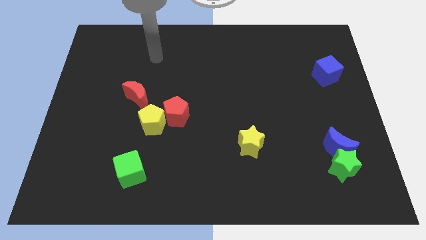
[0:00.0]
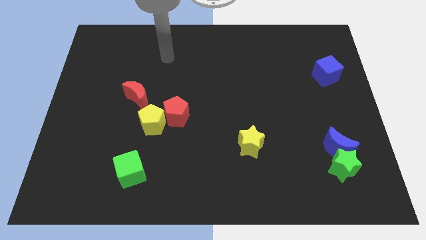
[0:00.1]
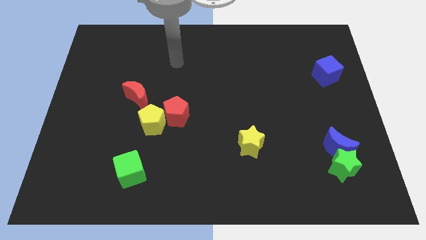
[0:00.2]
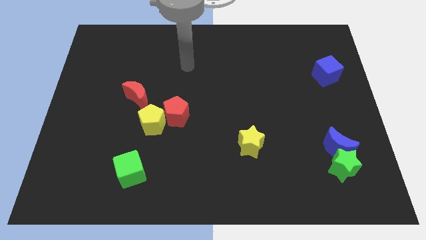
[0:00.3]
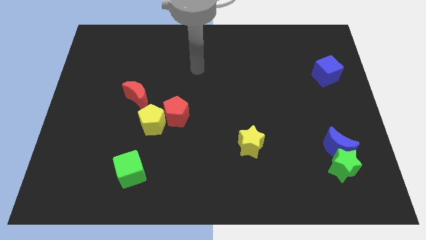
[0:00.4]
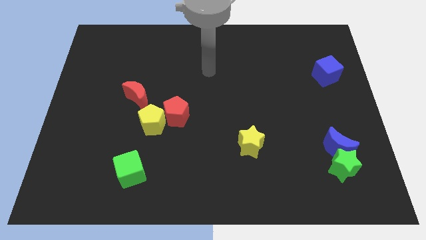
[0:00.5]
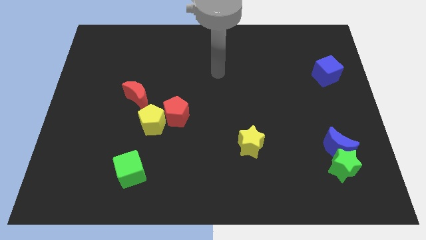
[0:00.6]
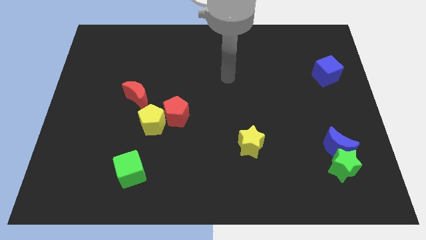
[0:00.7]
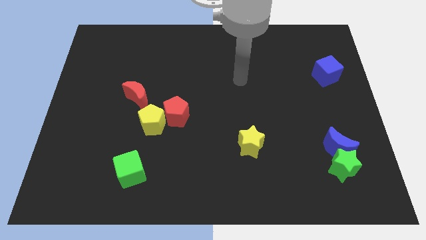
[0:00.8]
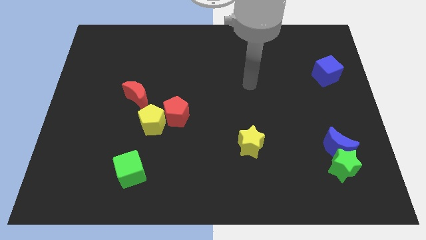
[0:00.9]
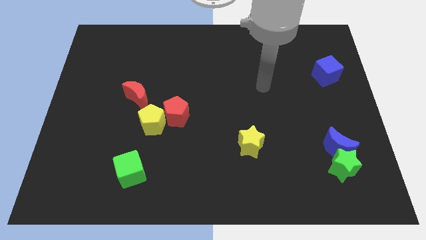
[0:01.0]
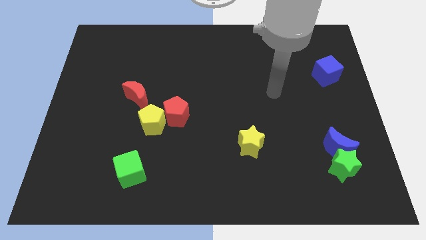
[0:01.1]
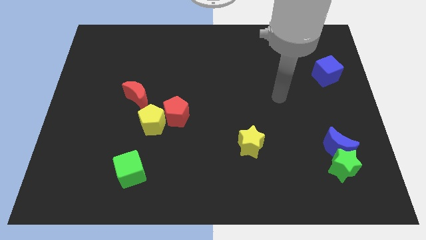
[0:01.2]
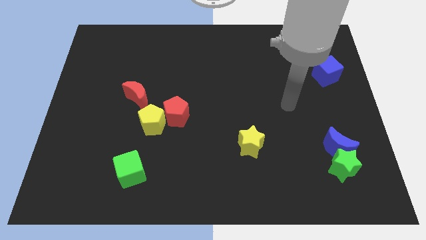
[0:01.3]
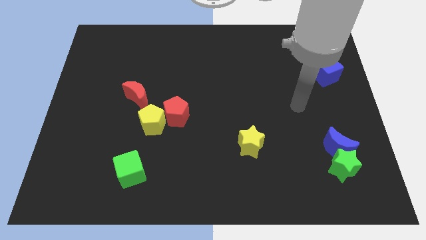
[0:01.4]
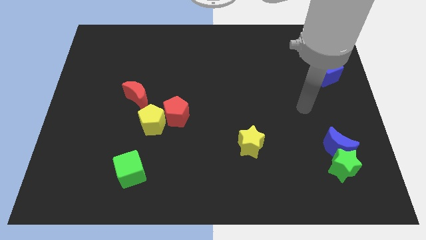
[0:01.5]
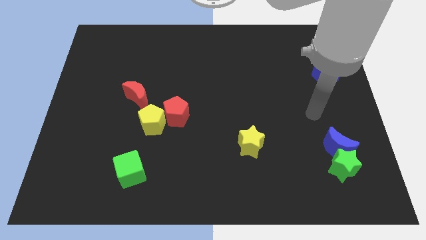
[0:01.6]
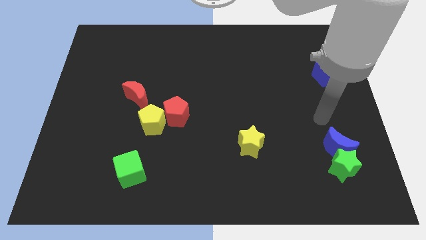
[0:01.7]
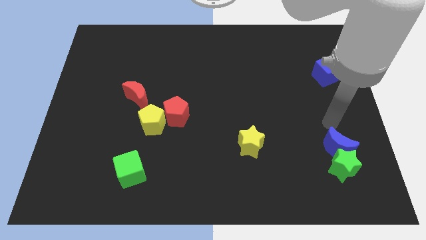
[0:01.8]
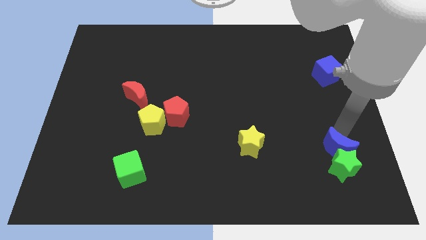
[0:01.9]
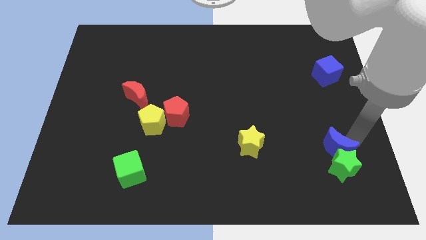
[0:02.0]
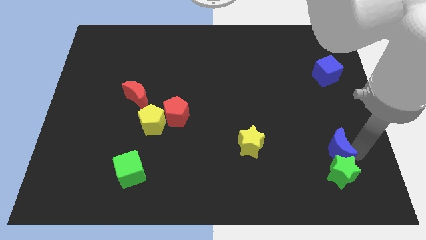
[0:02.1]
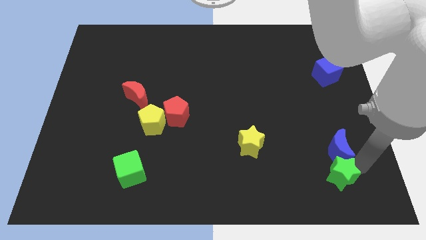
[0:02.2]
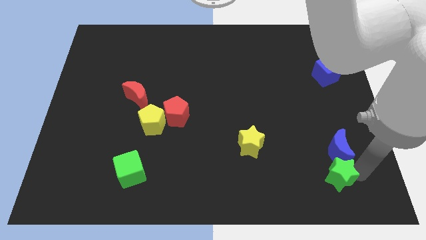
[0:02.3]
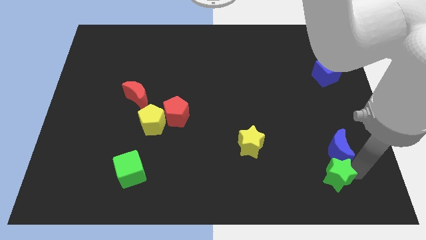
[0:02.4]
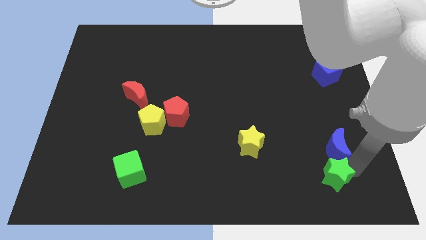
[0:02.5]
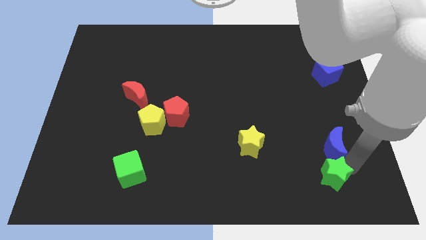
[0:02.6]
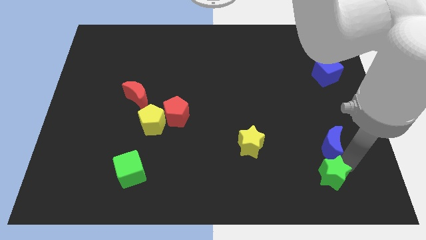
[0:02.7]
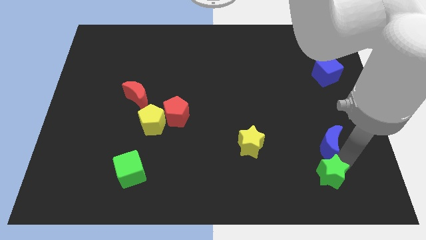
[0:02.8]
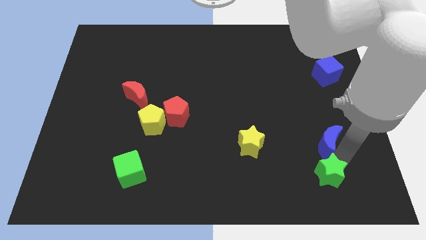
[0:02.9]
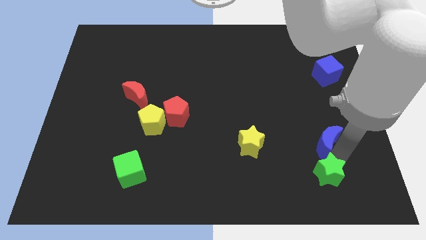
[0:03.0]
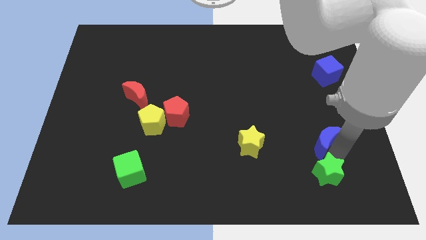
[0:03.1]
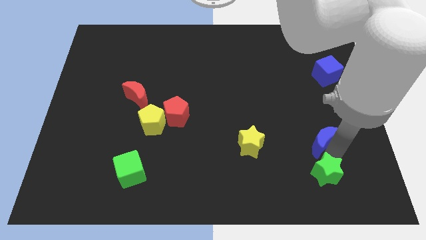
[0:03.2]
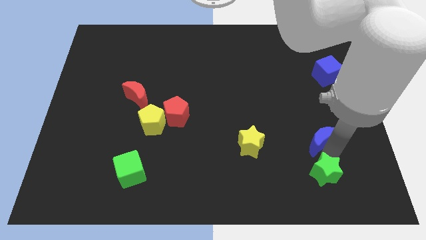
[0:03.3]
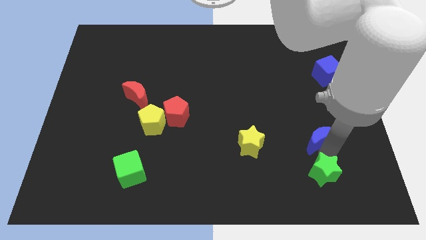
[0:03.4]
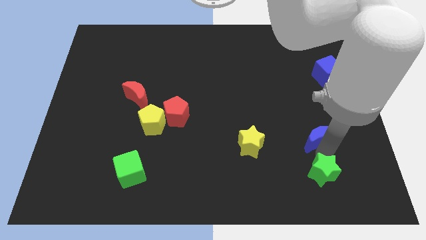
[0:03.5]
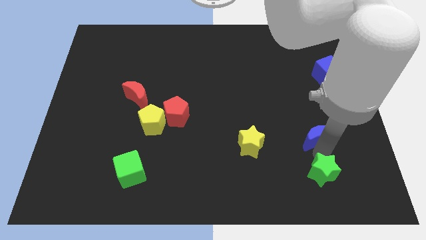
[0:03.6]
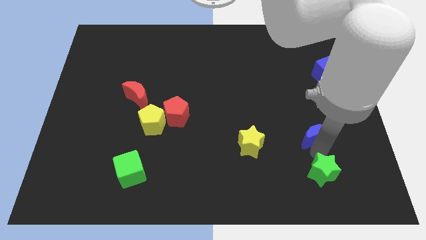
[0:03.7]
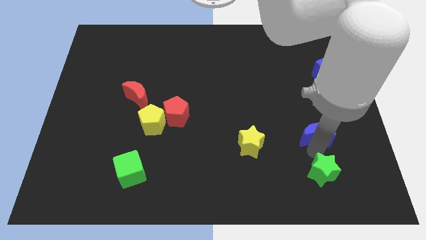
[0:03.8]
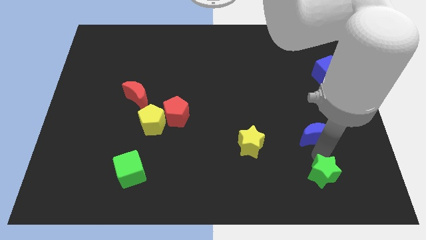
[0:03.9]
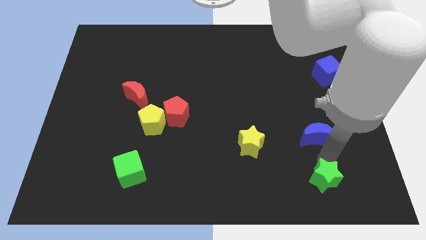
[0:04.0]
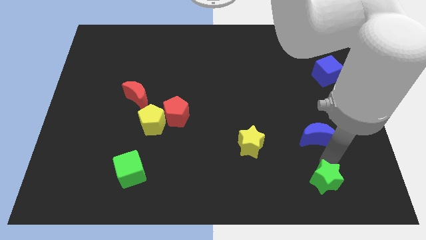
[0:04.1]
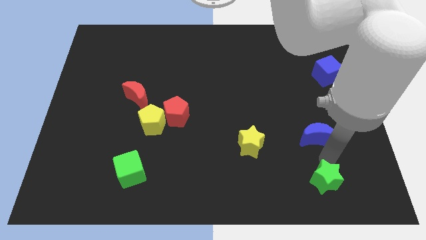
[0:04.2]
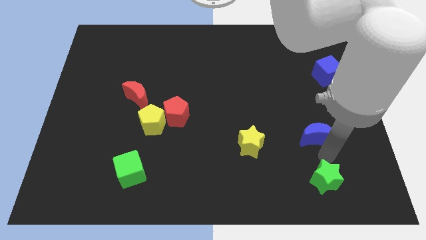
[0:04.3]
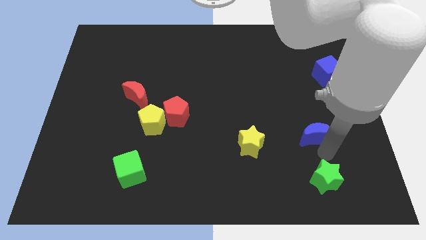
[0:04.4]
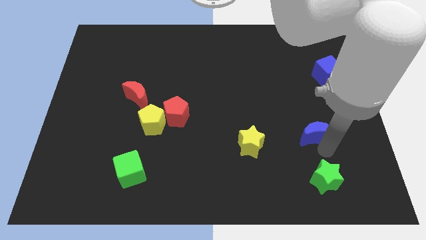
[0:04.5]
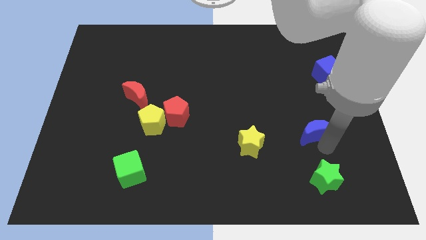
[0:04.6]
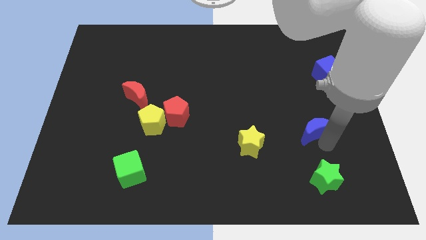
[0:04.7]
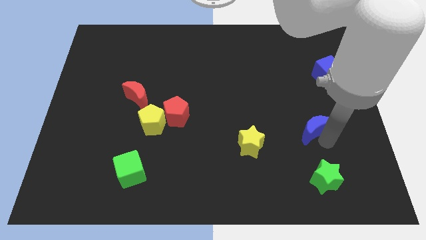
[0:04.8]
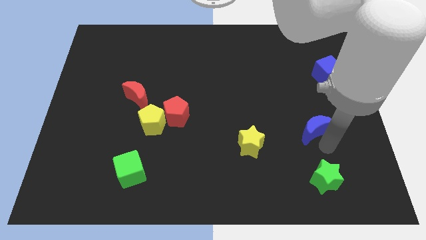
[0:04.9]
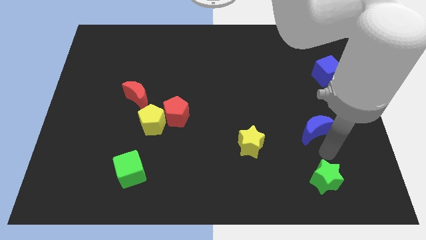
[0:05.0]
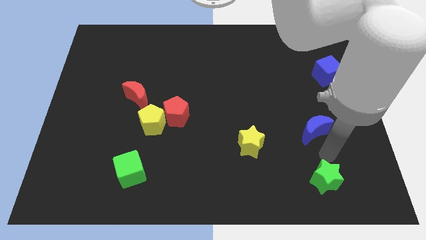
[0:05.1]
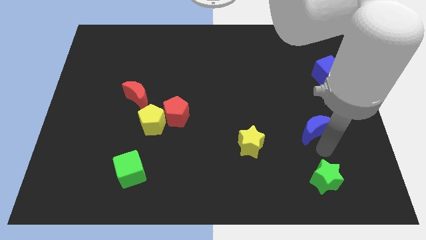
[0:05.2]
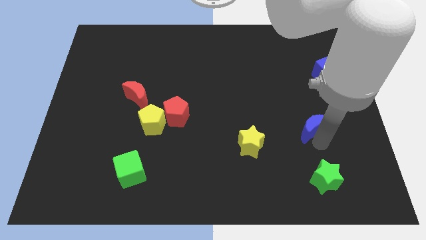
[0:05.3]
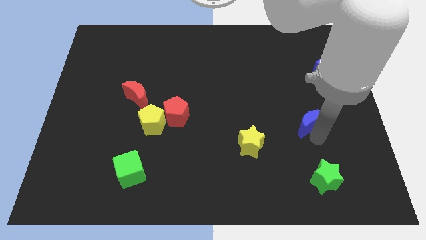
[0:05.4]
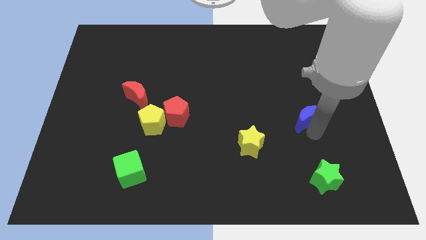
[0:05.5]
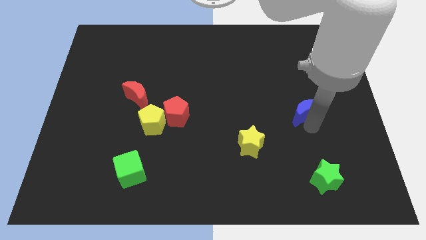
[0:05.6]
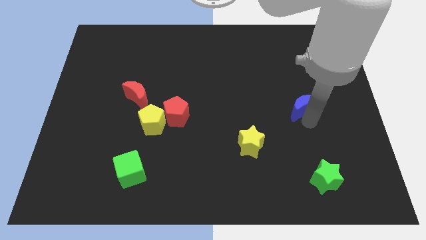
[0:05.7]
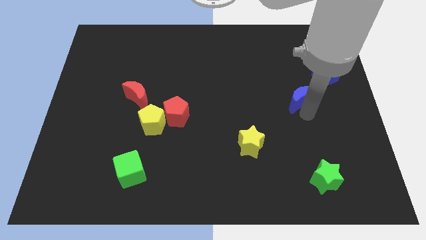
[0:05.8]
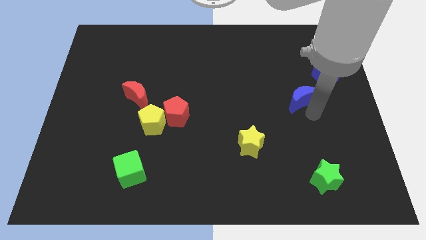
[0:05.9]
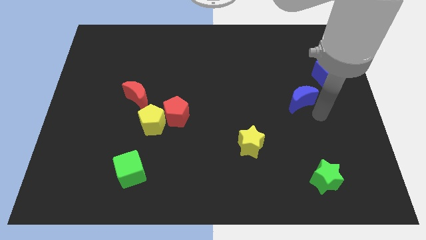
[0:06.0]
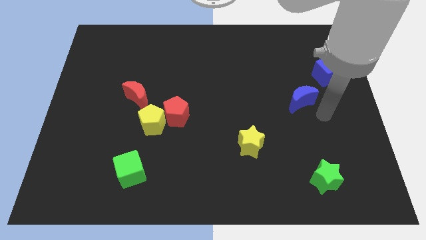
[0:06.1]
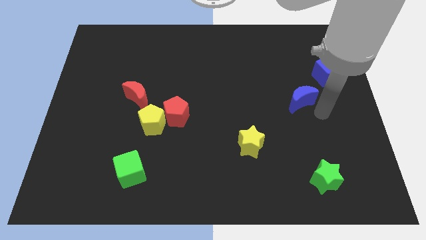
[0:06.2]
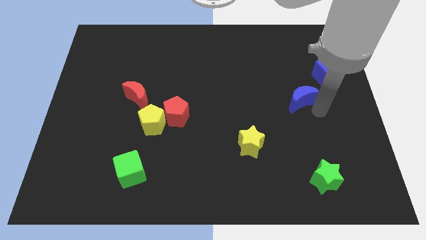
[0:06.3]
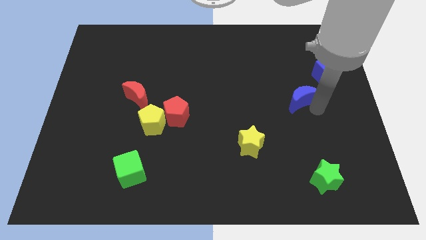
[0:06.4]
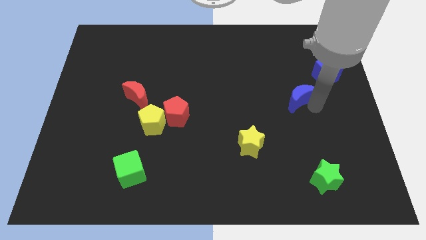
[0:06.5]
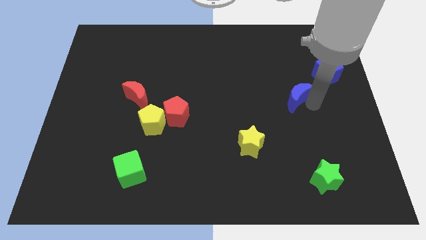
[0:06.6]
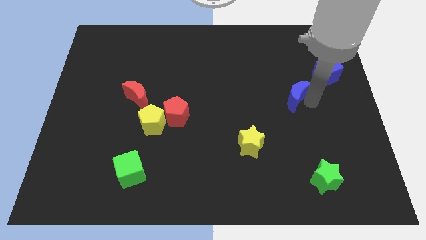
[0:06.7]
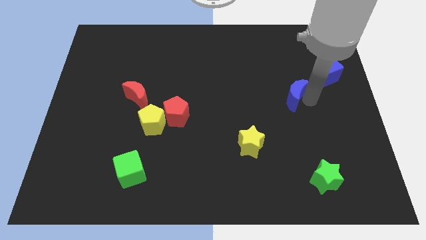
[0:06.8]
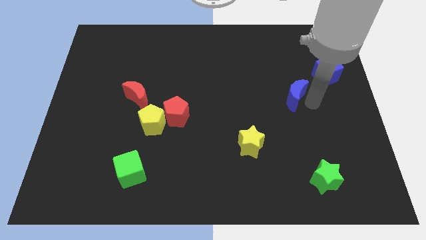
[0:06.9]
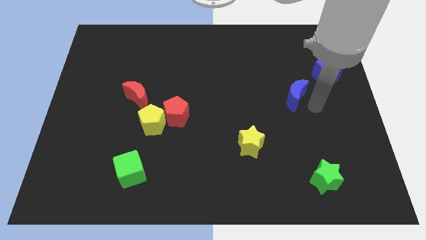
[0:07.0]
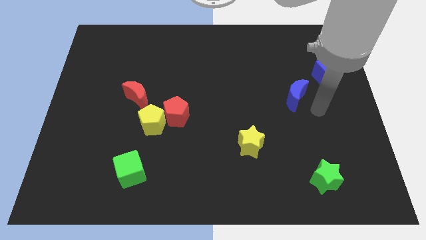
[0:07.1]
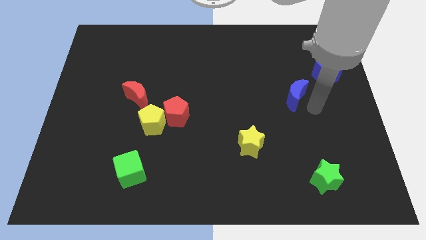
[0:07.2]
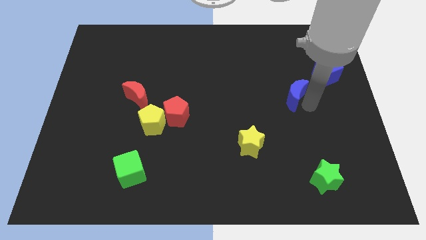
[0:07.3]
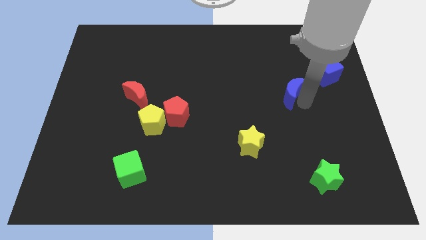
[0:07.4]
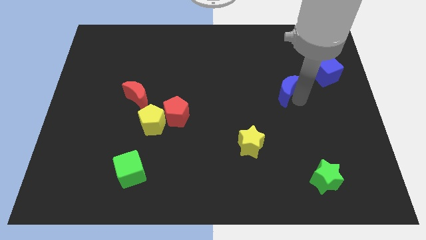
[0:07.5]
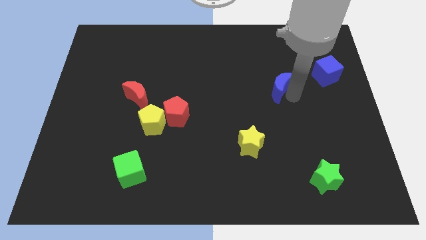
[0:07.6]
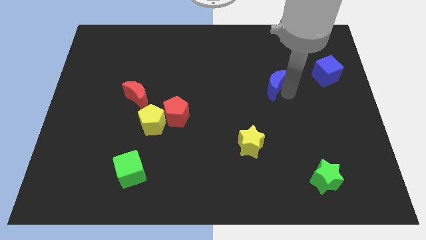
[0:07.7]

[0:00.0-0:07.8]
slide the blue moon up and then left

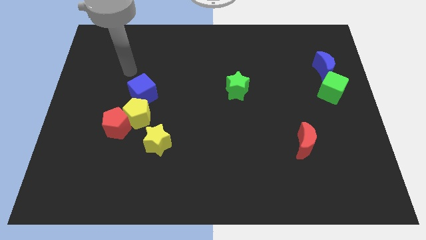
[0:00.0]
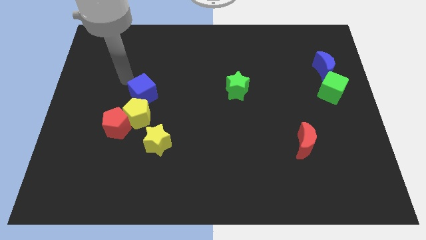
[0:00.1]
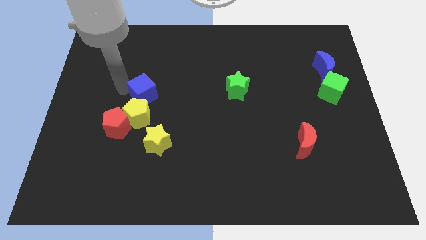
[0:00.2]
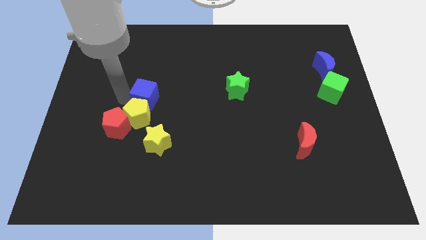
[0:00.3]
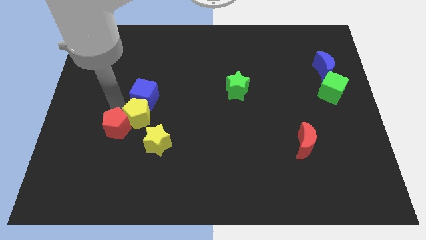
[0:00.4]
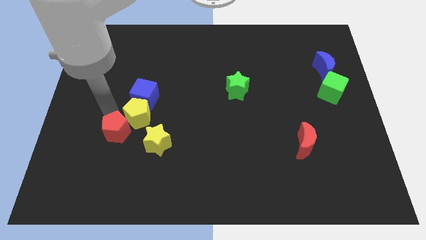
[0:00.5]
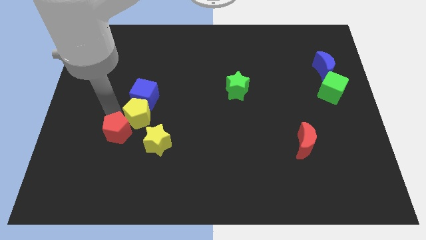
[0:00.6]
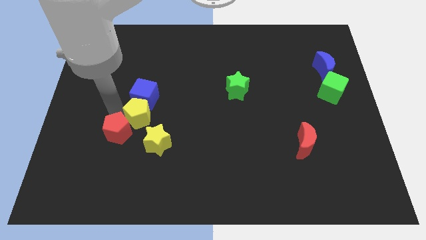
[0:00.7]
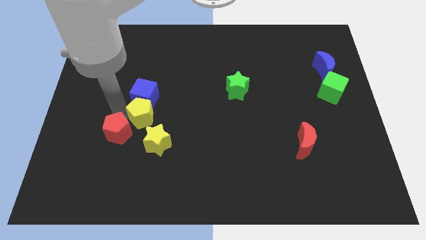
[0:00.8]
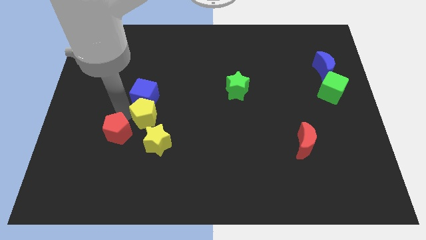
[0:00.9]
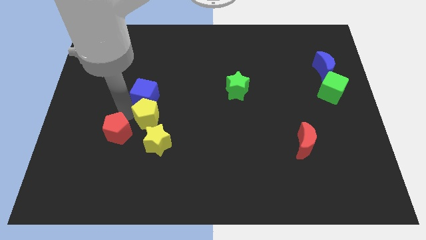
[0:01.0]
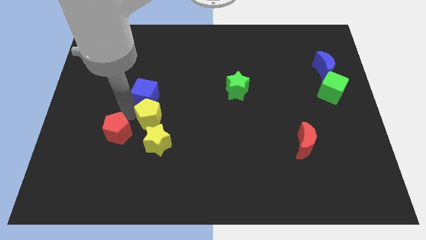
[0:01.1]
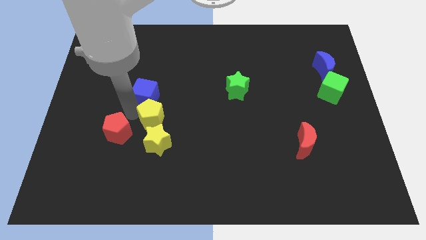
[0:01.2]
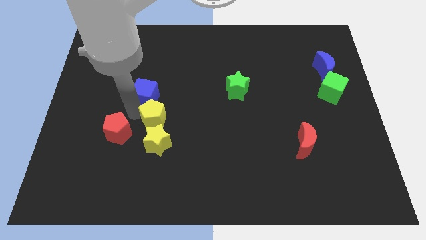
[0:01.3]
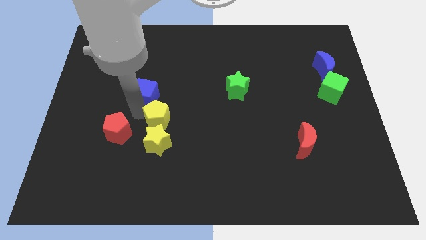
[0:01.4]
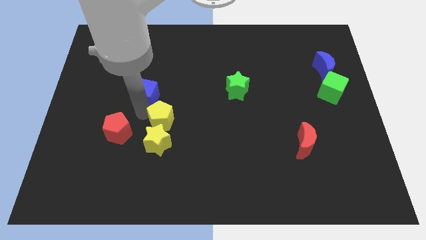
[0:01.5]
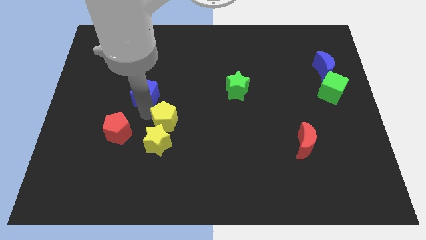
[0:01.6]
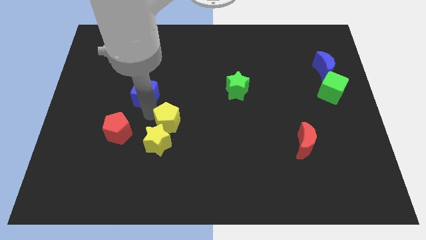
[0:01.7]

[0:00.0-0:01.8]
slightly move the yellow pentagon right
